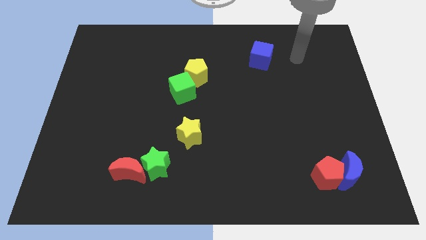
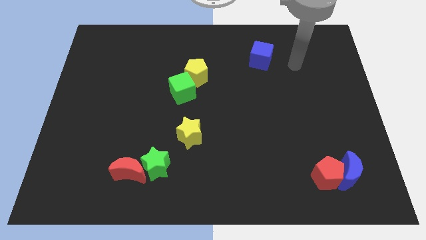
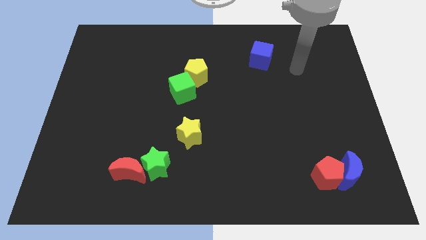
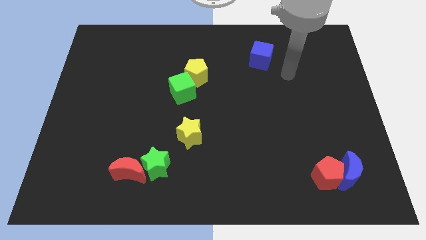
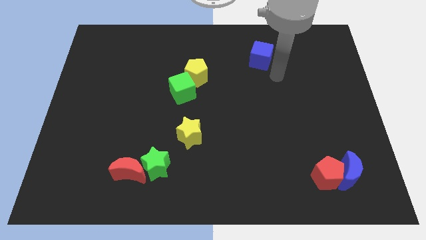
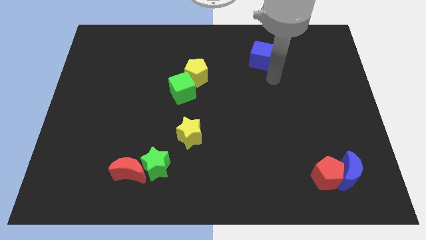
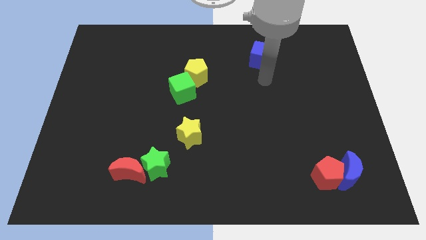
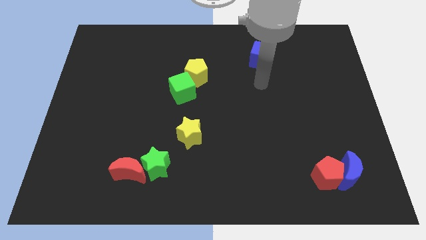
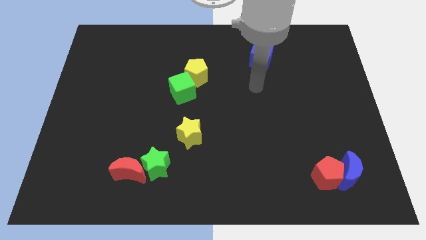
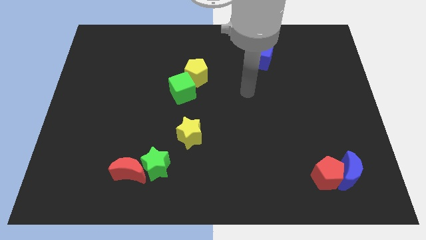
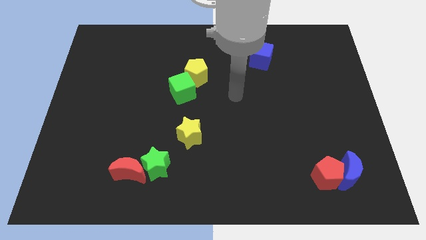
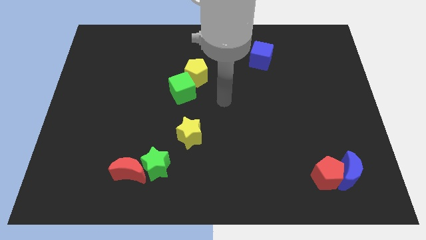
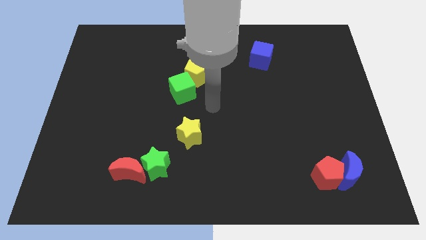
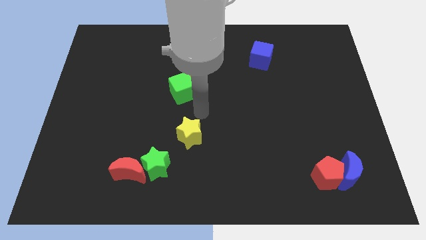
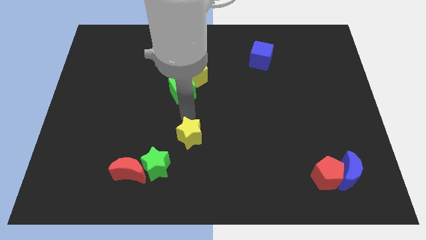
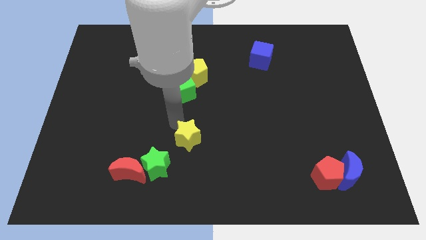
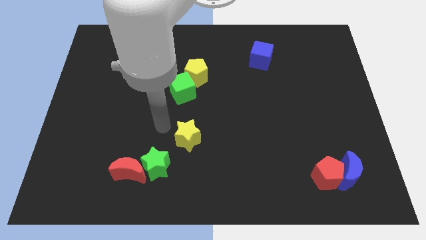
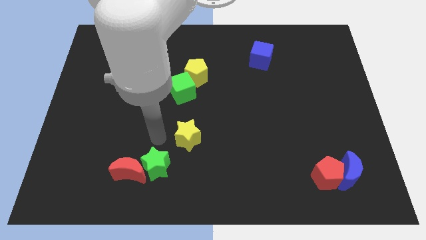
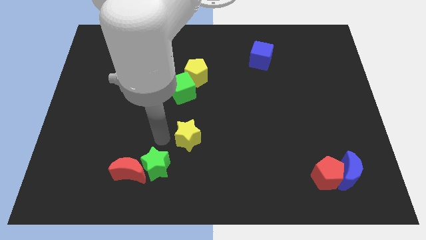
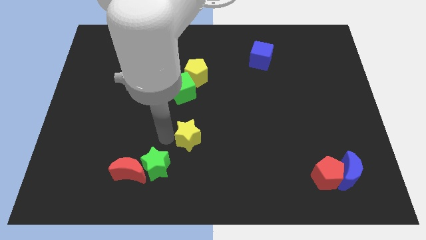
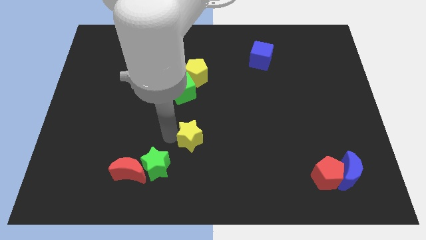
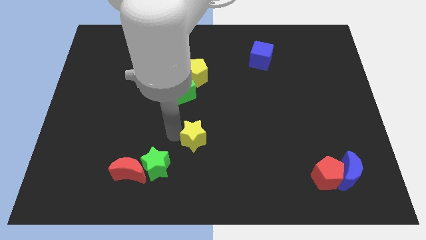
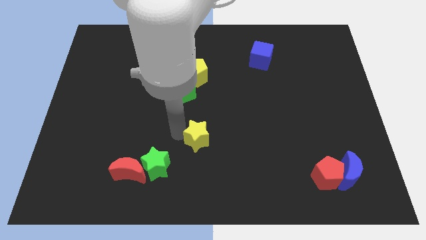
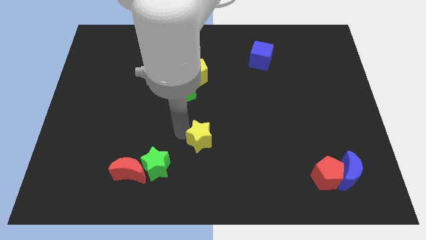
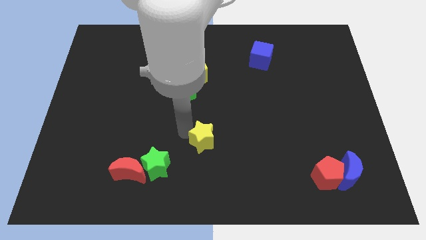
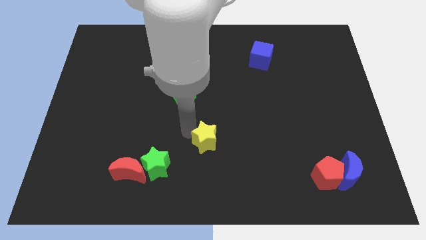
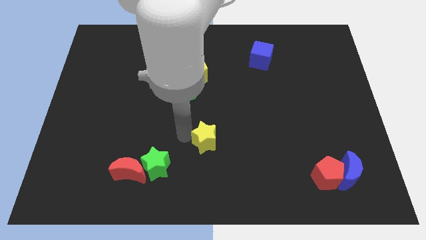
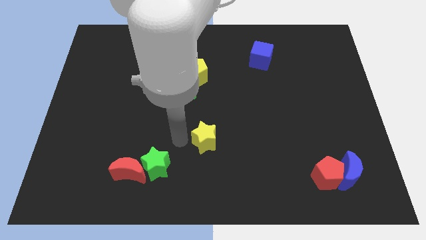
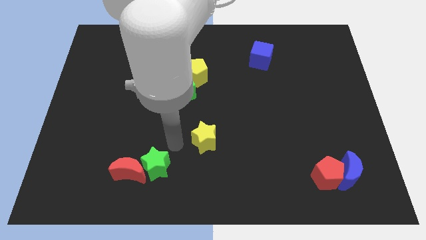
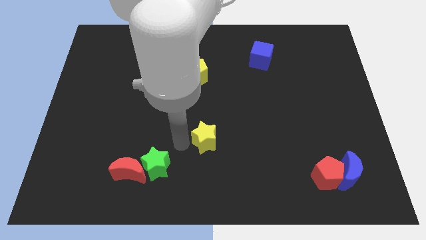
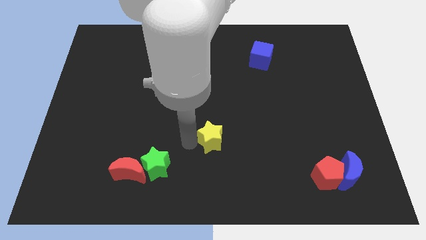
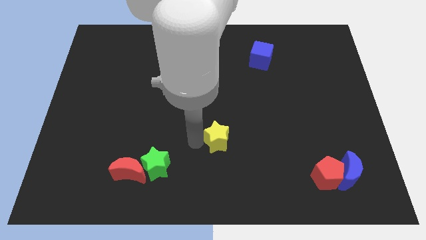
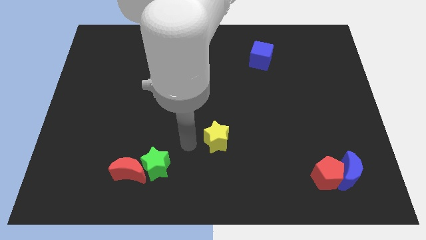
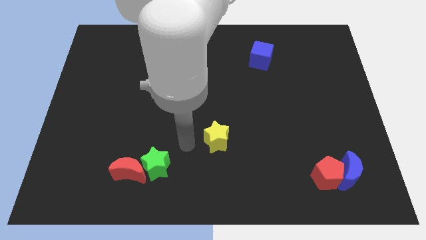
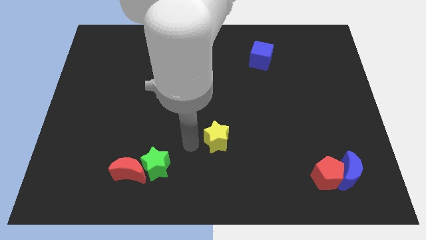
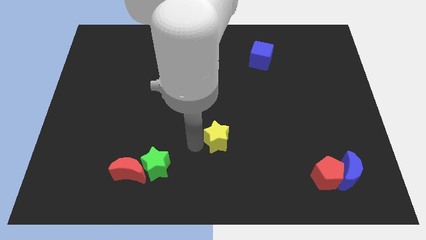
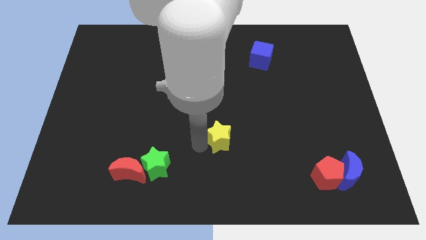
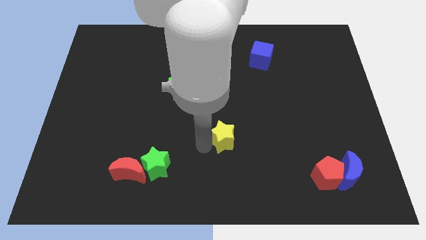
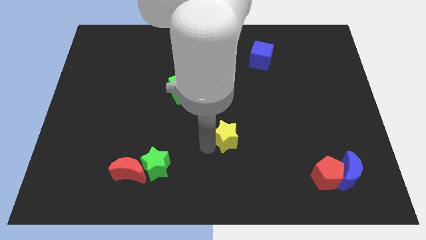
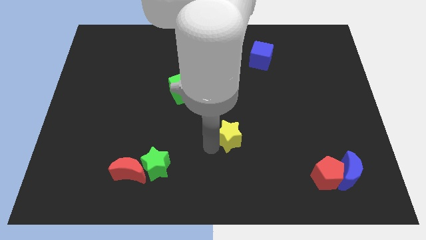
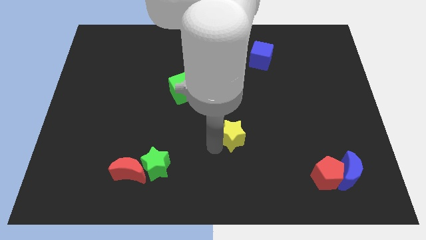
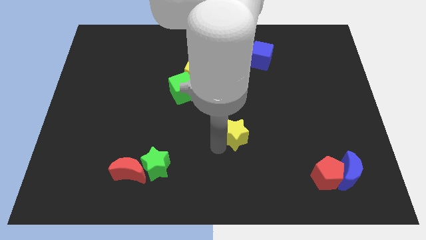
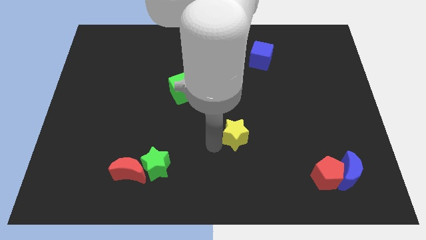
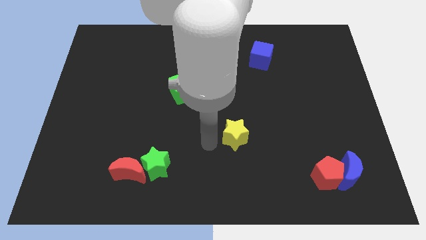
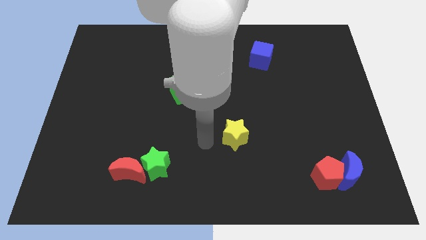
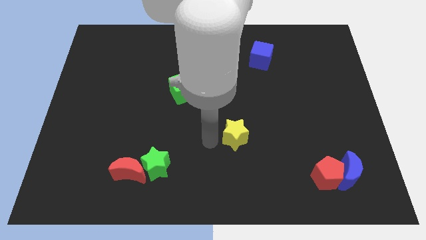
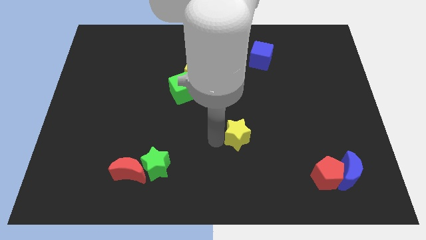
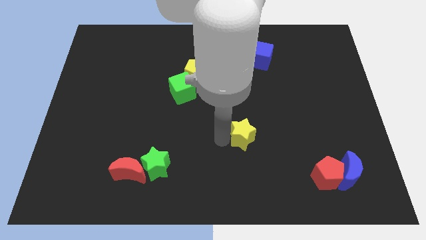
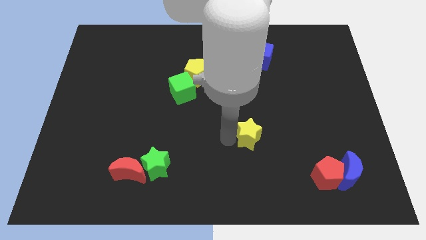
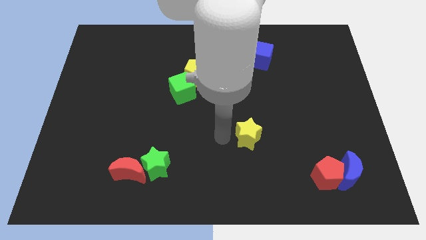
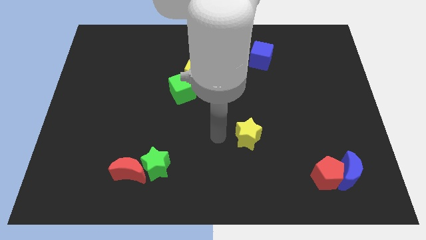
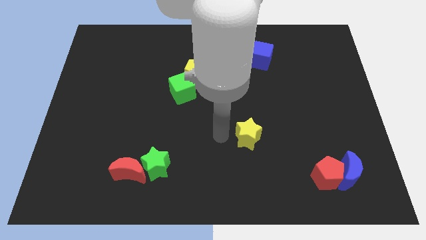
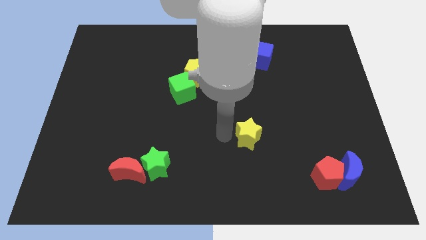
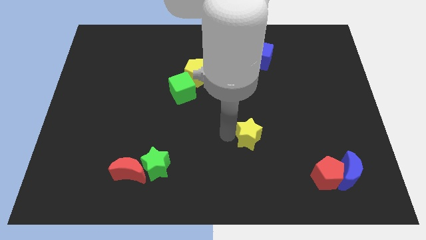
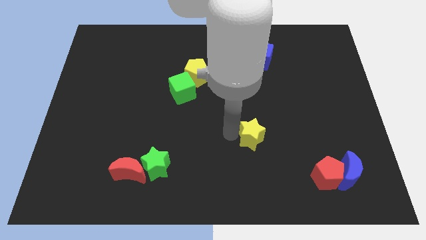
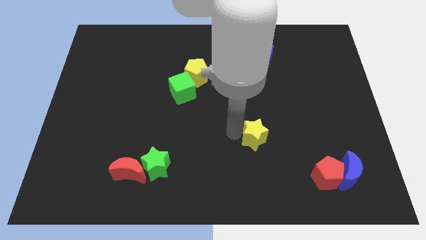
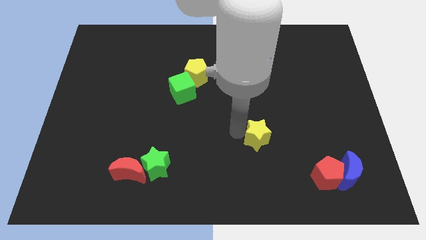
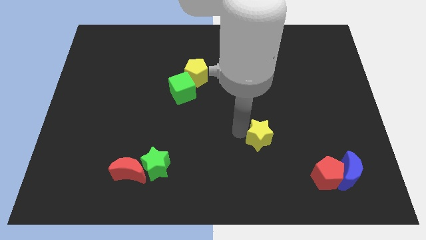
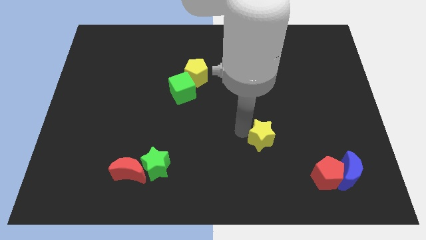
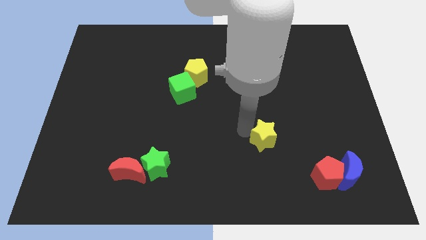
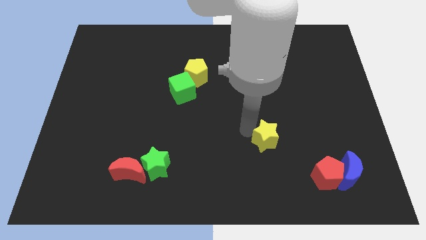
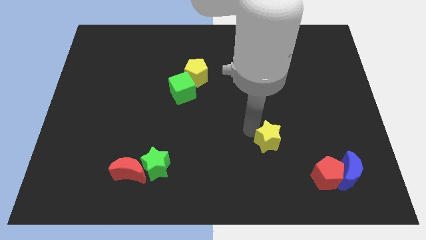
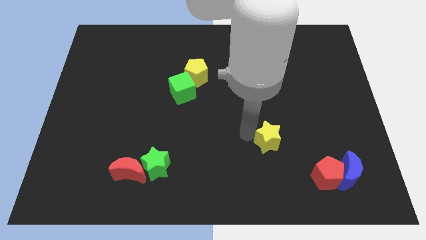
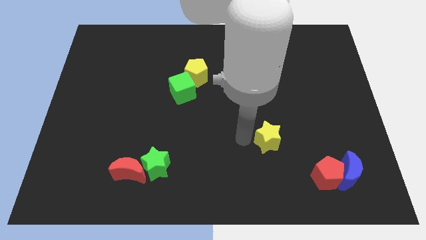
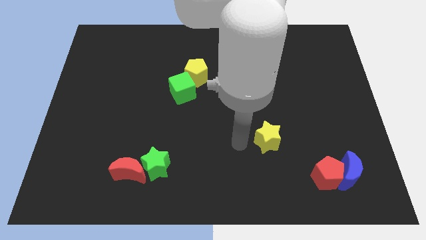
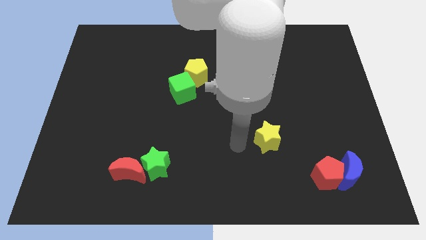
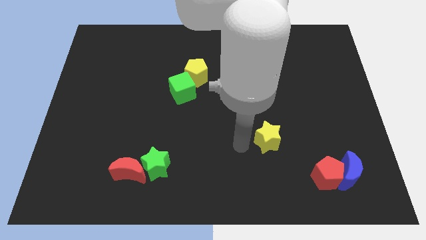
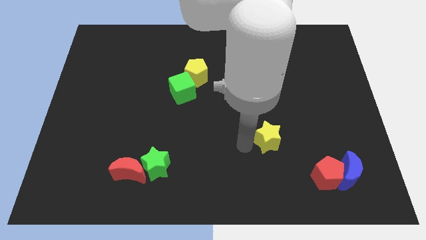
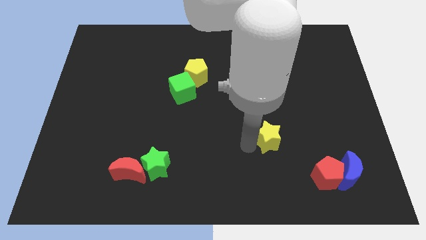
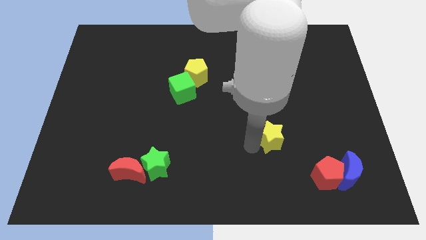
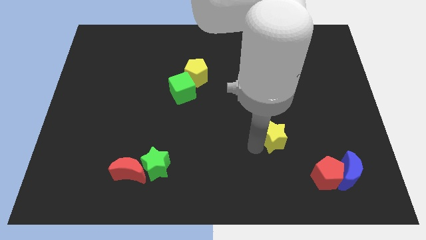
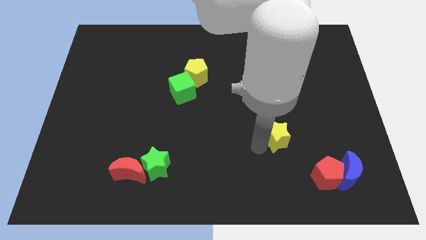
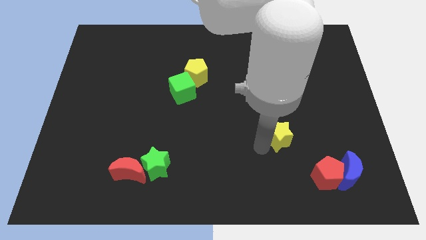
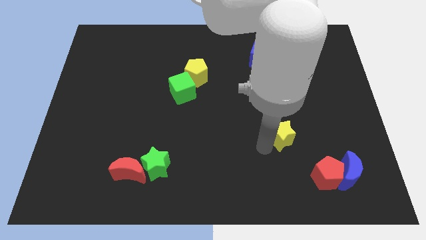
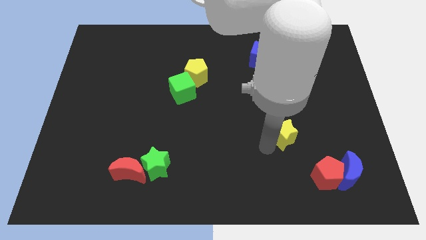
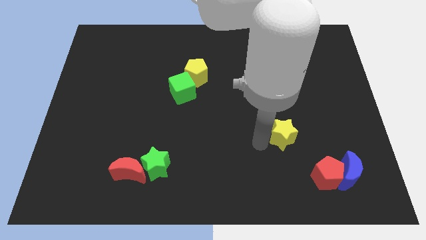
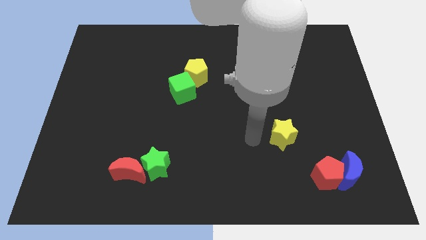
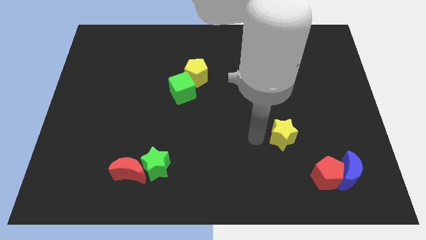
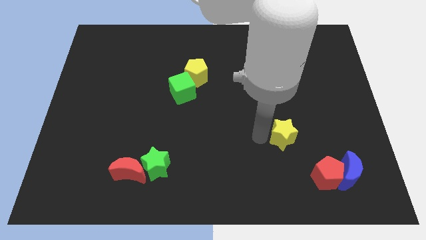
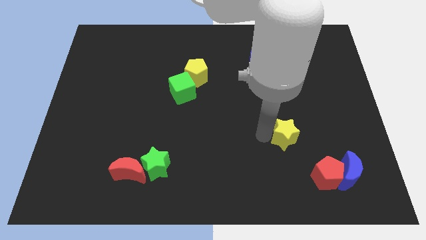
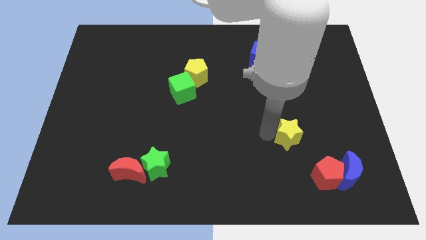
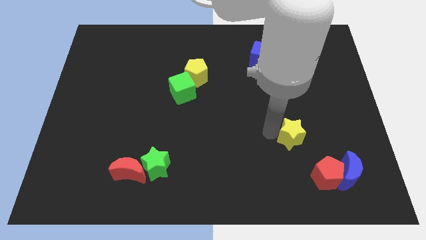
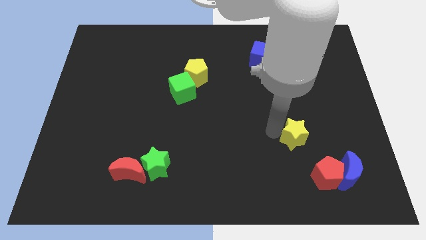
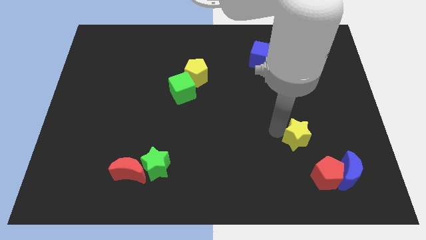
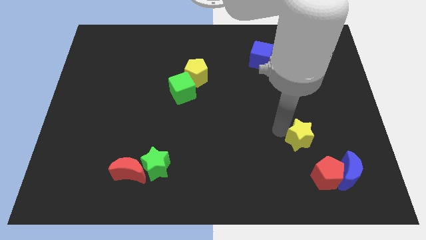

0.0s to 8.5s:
move the yellow star to the top side of the red pentagon
